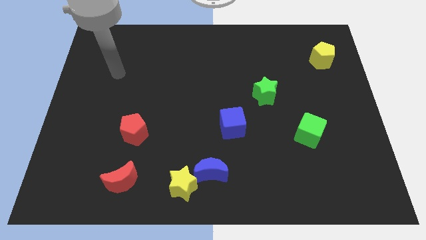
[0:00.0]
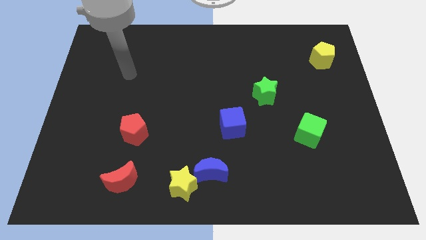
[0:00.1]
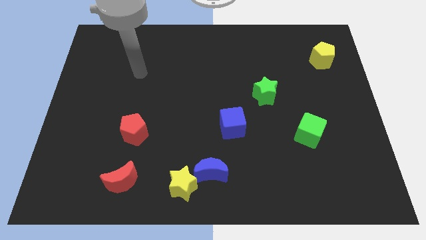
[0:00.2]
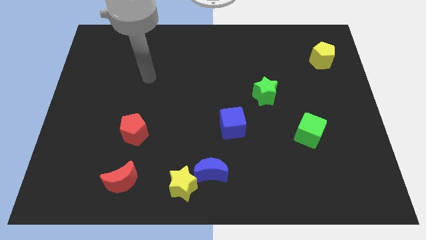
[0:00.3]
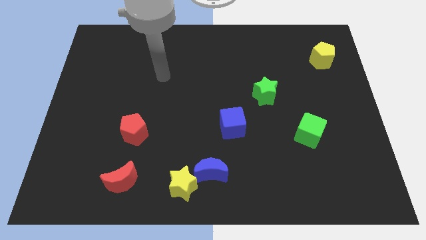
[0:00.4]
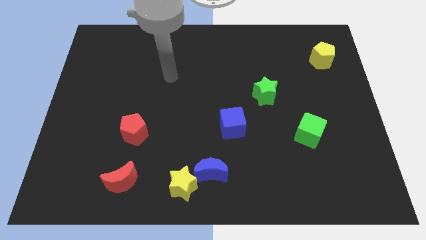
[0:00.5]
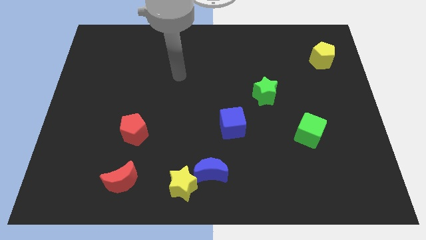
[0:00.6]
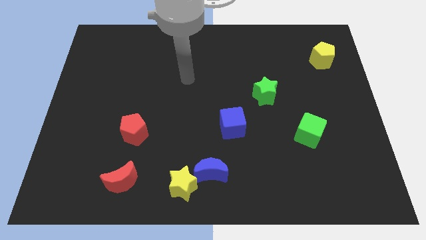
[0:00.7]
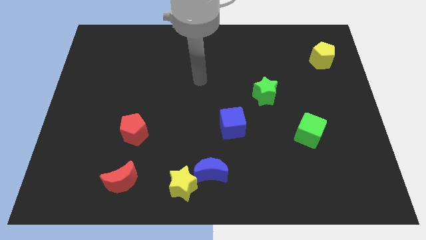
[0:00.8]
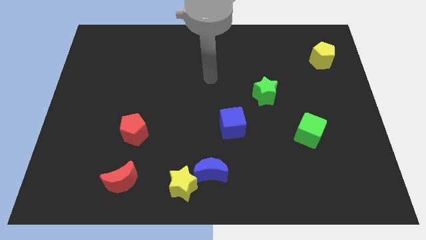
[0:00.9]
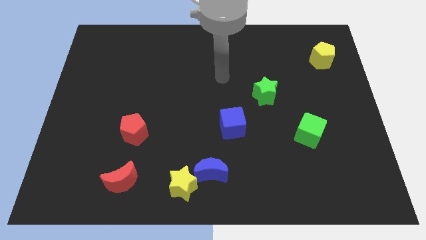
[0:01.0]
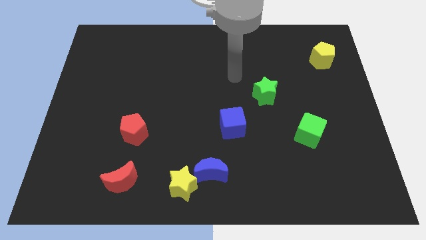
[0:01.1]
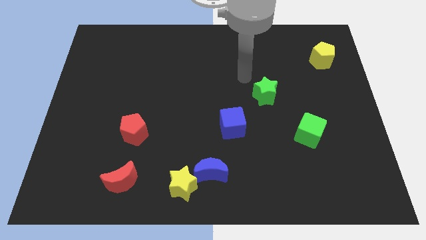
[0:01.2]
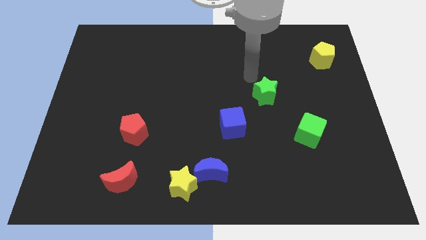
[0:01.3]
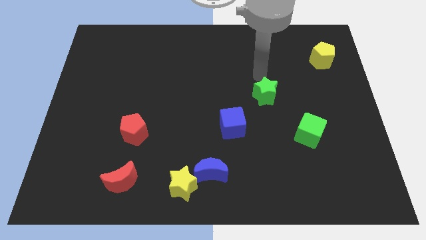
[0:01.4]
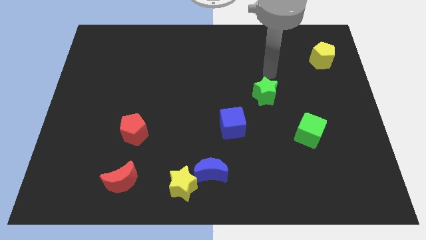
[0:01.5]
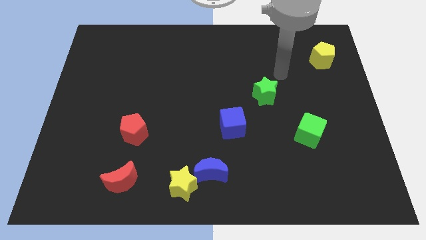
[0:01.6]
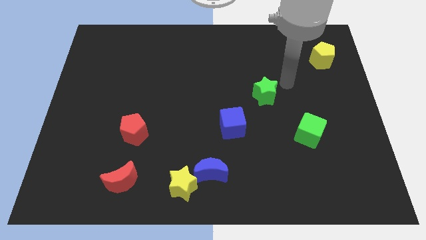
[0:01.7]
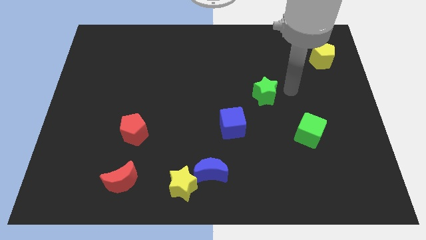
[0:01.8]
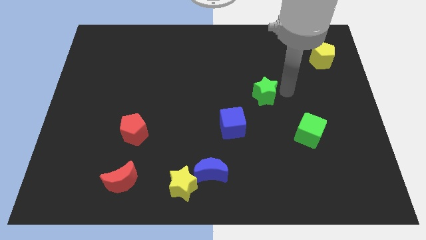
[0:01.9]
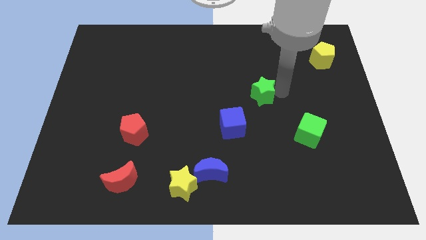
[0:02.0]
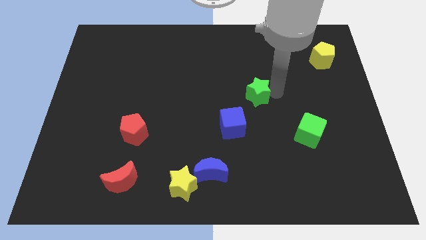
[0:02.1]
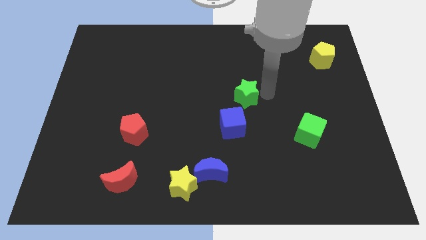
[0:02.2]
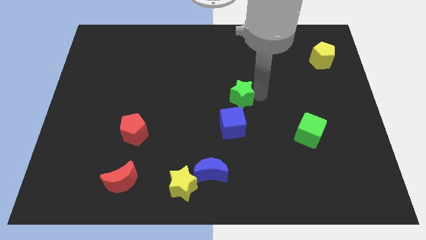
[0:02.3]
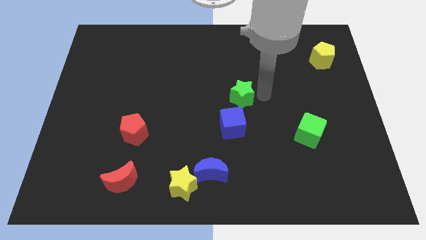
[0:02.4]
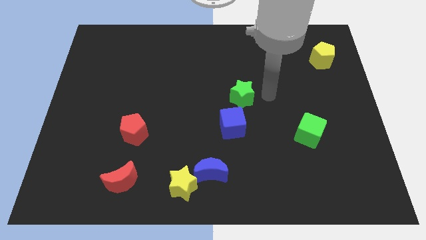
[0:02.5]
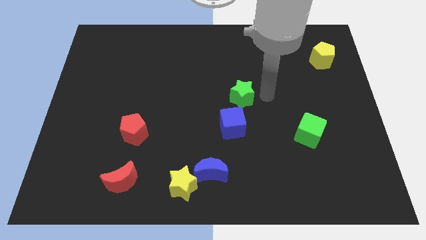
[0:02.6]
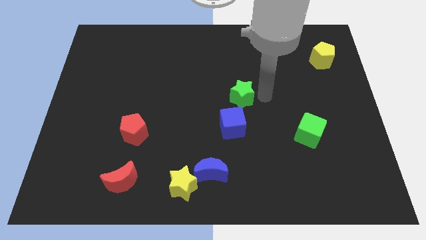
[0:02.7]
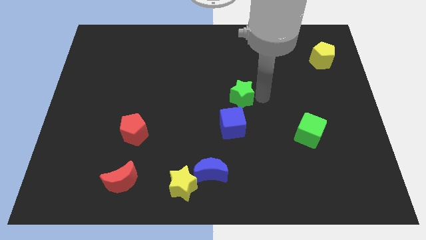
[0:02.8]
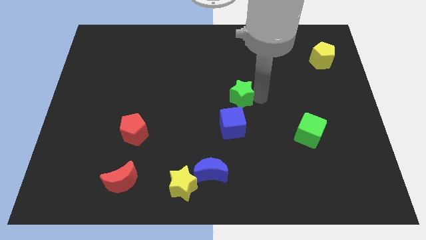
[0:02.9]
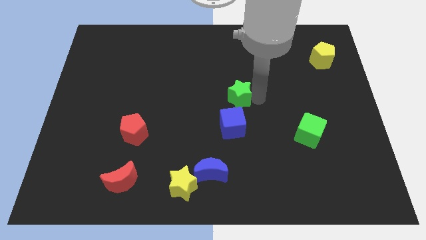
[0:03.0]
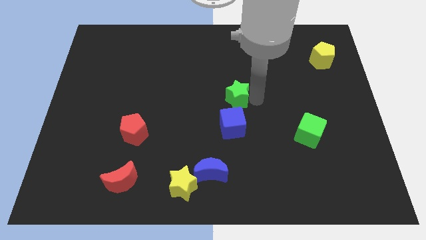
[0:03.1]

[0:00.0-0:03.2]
push the green star to the left a bit

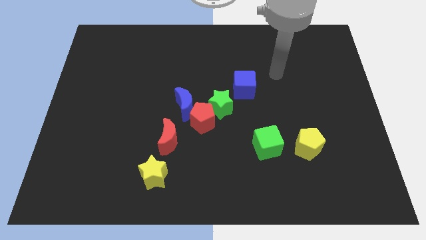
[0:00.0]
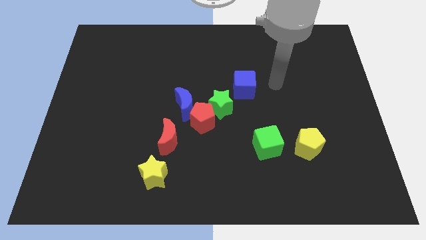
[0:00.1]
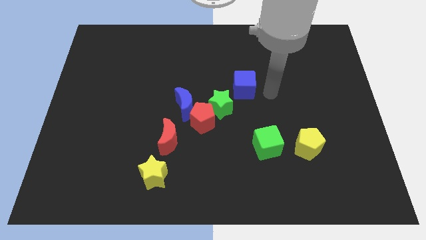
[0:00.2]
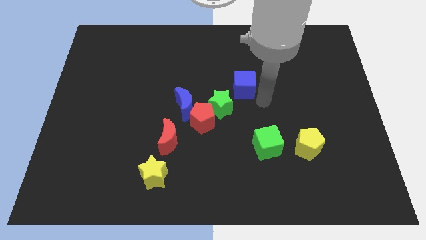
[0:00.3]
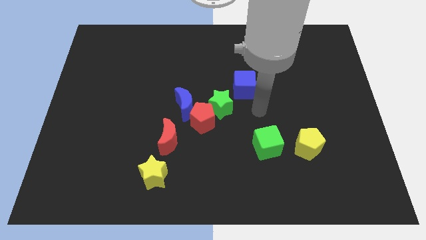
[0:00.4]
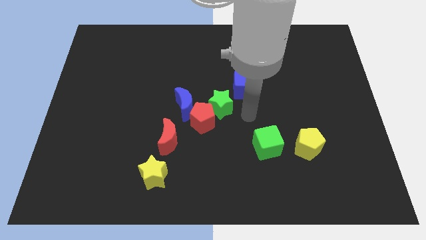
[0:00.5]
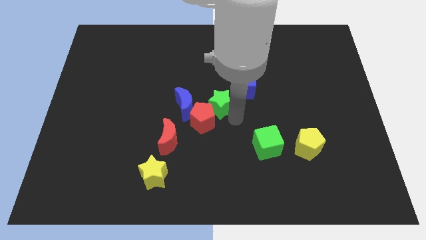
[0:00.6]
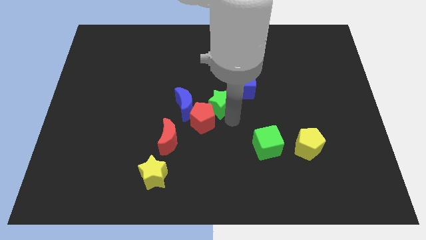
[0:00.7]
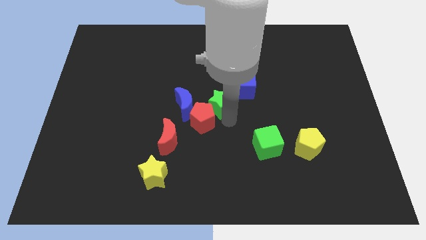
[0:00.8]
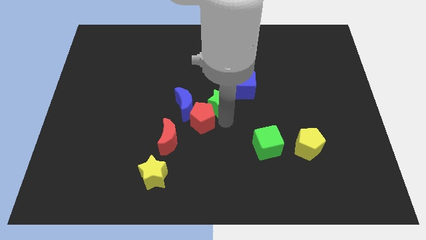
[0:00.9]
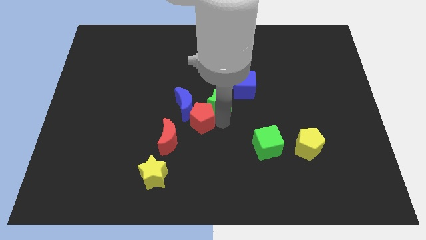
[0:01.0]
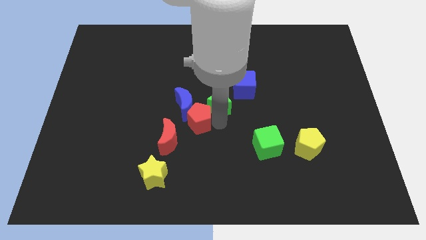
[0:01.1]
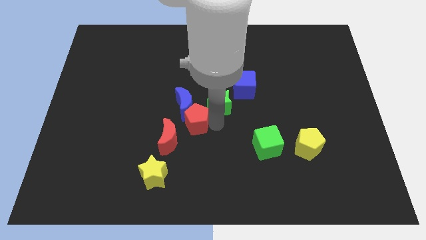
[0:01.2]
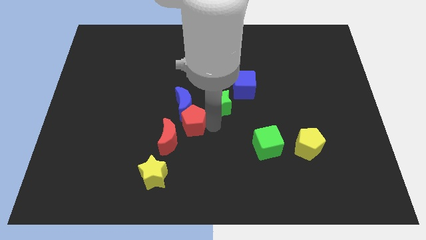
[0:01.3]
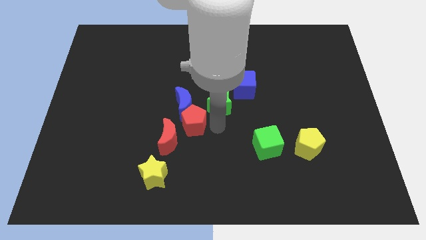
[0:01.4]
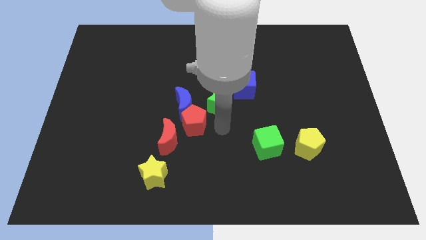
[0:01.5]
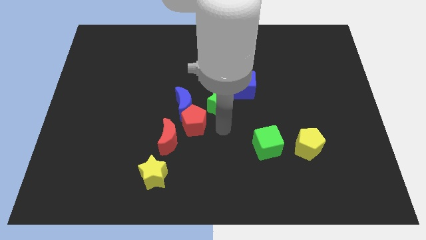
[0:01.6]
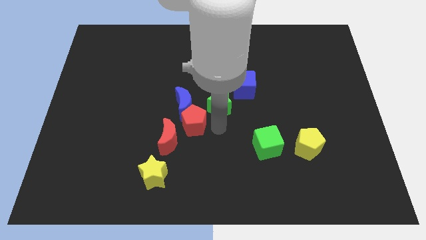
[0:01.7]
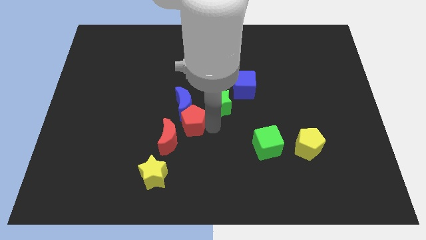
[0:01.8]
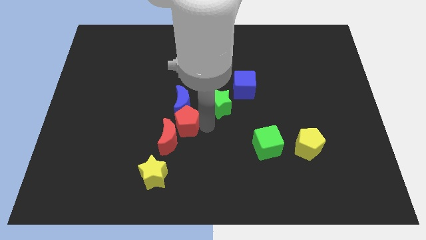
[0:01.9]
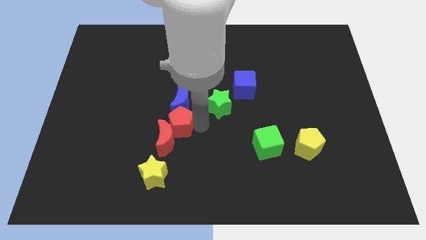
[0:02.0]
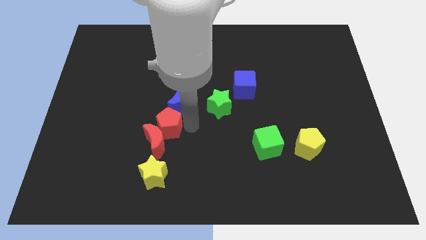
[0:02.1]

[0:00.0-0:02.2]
slightly move the red pentagon to the left

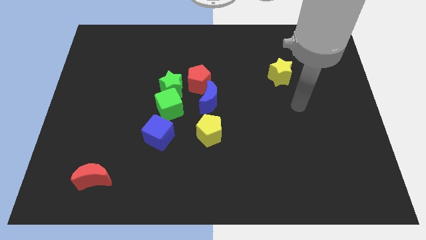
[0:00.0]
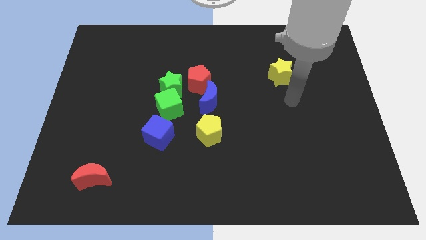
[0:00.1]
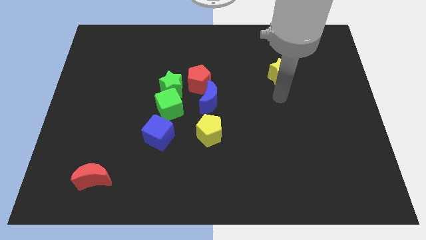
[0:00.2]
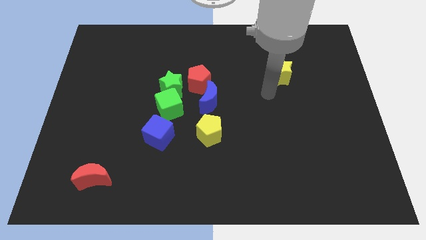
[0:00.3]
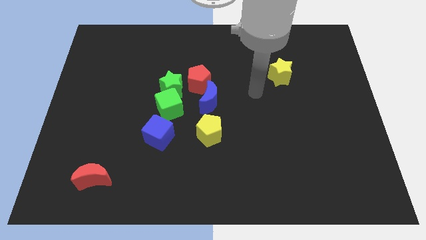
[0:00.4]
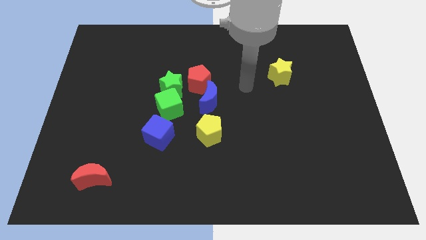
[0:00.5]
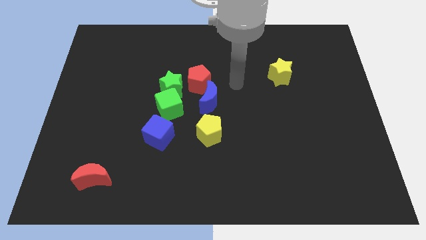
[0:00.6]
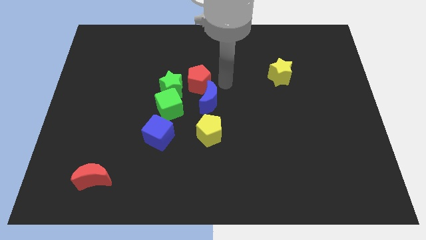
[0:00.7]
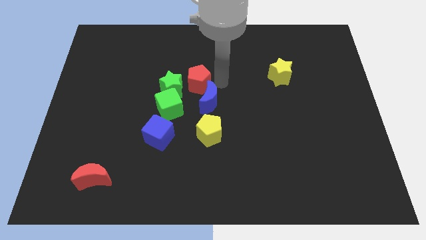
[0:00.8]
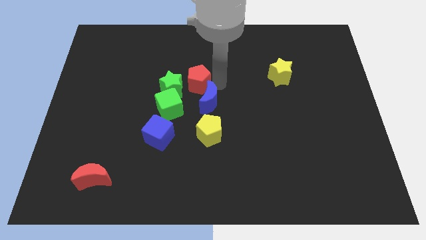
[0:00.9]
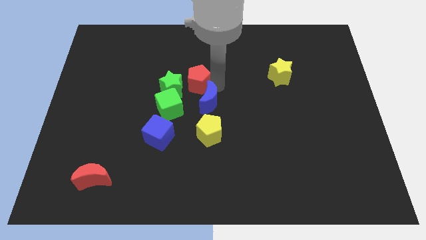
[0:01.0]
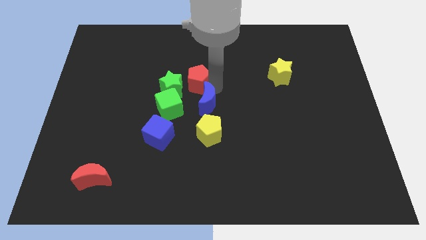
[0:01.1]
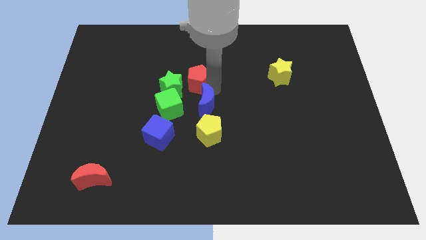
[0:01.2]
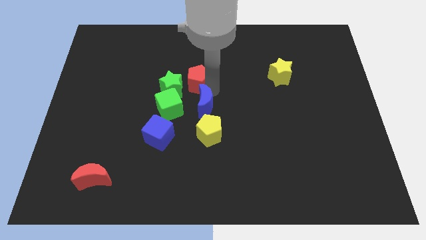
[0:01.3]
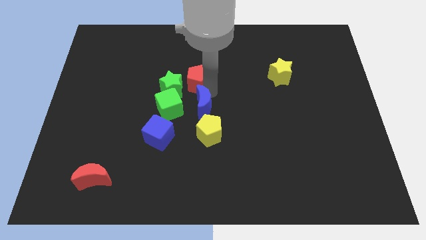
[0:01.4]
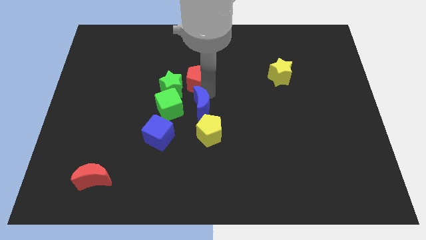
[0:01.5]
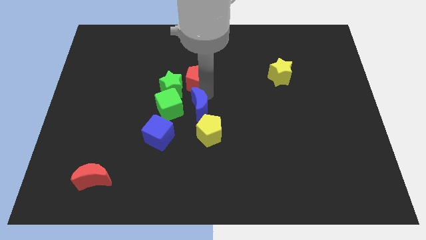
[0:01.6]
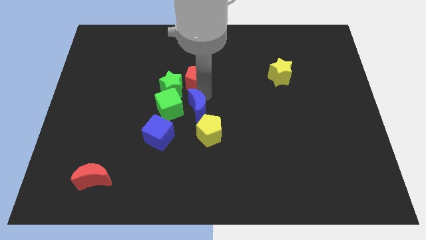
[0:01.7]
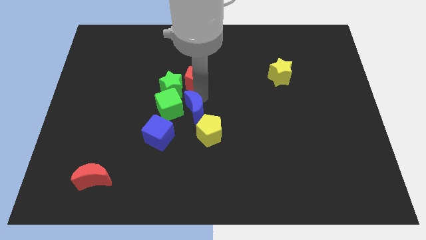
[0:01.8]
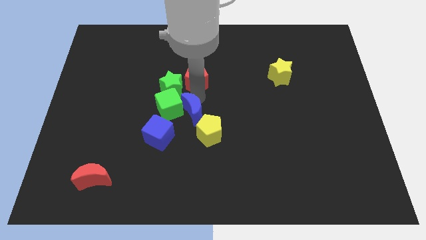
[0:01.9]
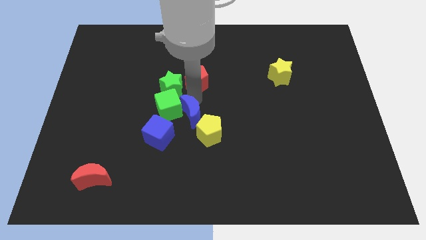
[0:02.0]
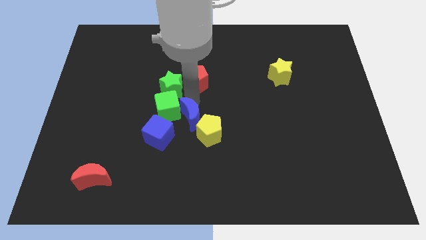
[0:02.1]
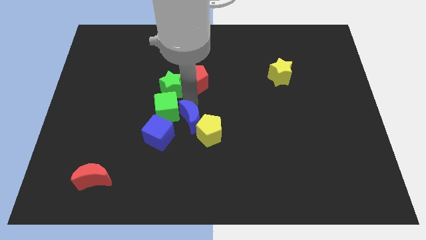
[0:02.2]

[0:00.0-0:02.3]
slightly push the blue moon diagonally down and left

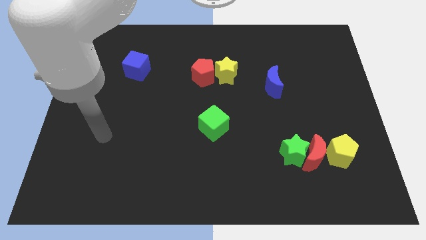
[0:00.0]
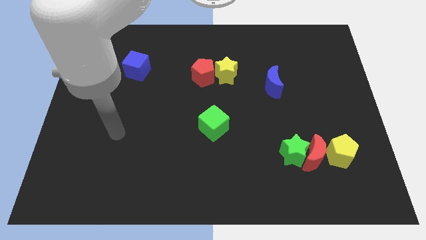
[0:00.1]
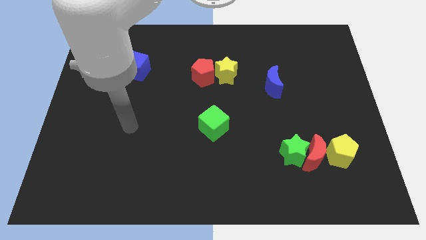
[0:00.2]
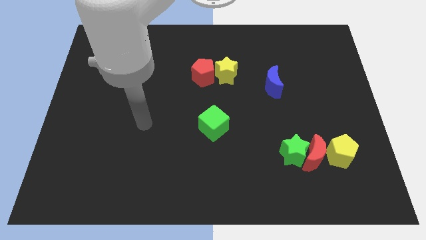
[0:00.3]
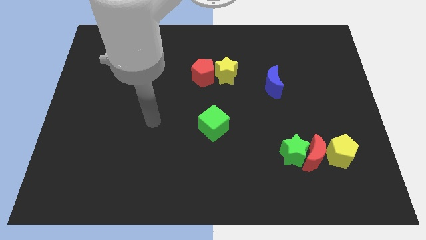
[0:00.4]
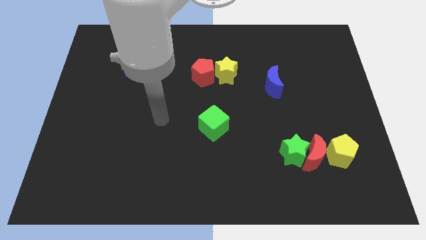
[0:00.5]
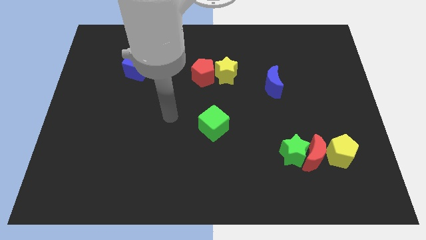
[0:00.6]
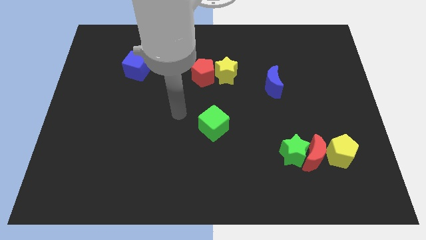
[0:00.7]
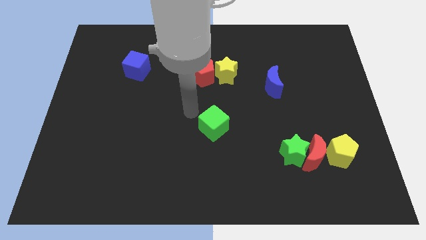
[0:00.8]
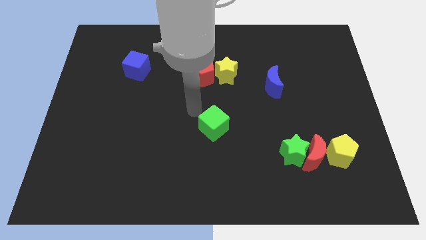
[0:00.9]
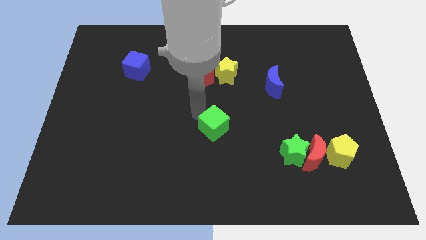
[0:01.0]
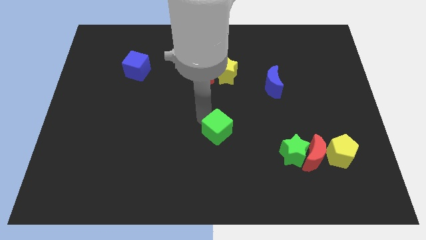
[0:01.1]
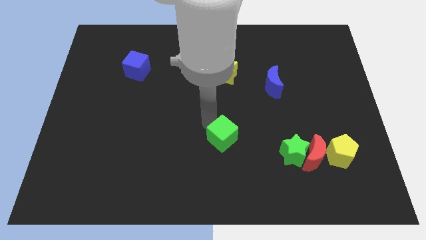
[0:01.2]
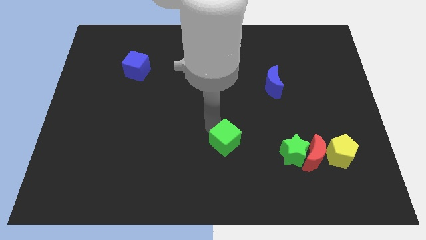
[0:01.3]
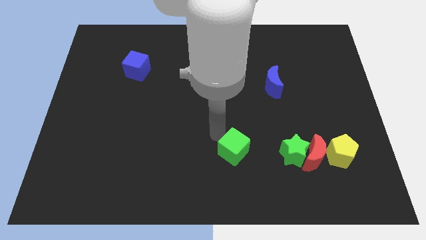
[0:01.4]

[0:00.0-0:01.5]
slide the green cube somewhat diagonally down and right
